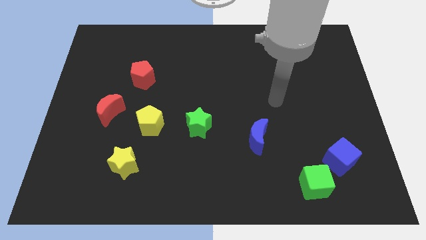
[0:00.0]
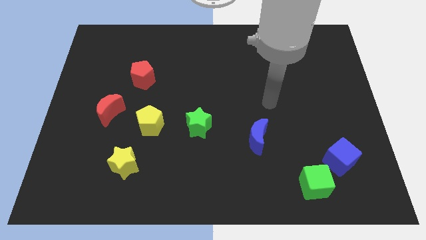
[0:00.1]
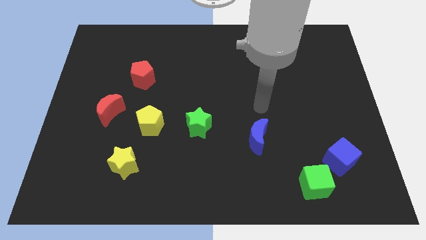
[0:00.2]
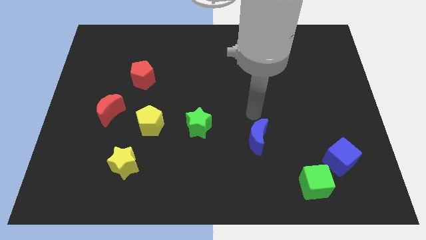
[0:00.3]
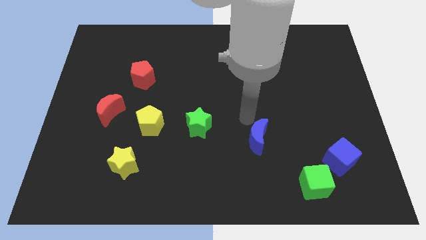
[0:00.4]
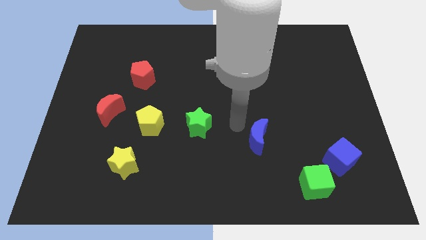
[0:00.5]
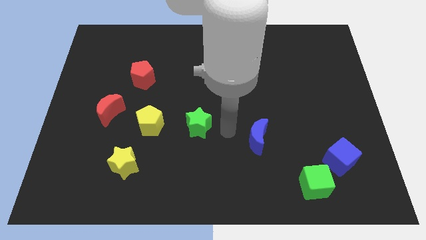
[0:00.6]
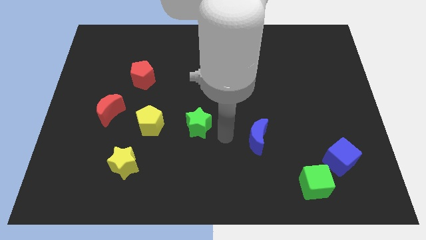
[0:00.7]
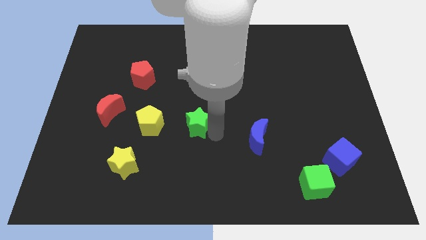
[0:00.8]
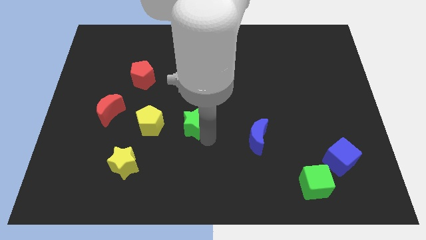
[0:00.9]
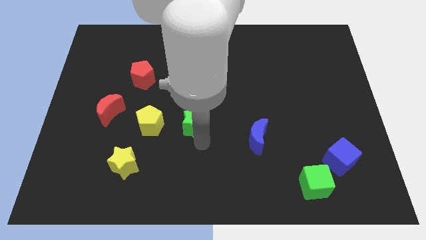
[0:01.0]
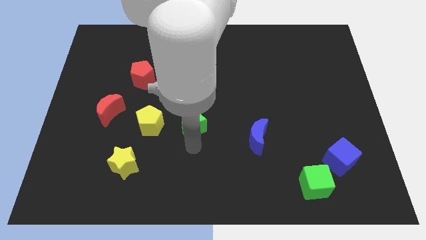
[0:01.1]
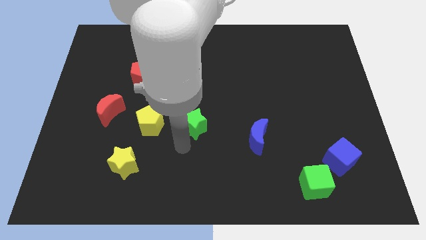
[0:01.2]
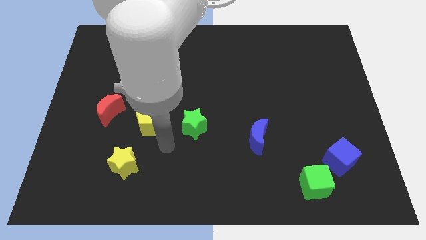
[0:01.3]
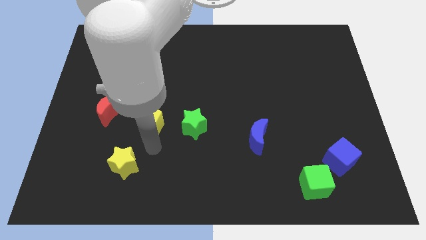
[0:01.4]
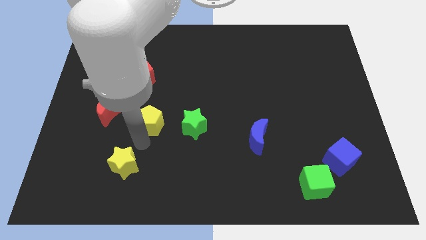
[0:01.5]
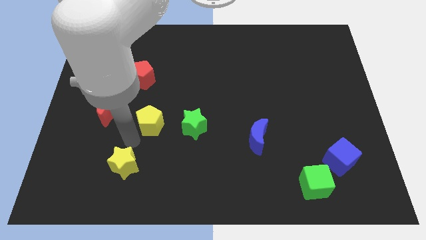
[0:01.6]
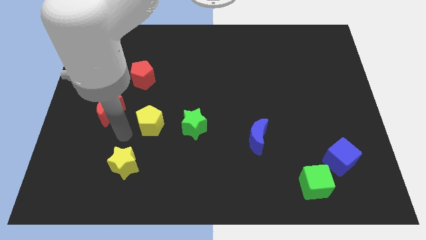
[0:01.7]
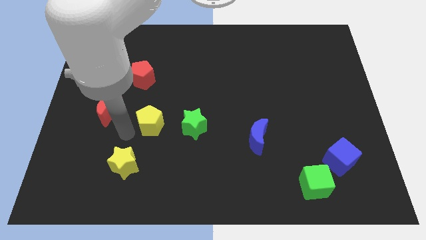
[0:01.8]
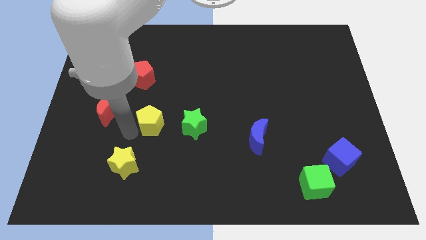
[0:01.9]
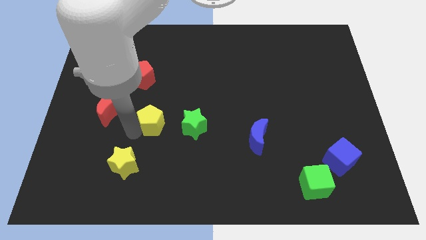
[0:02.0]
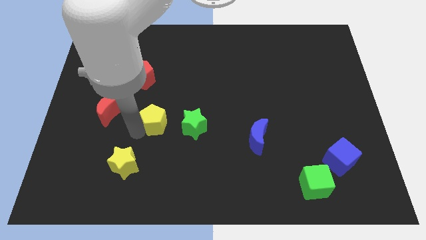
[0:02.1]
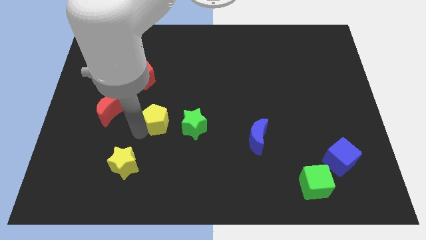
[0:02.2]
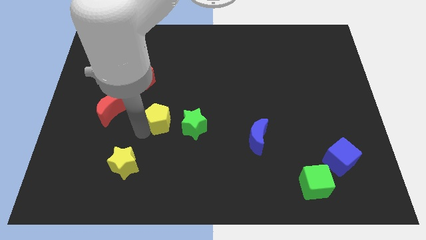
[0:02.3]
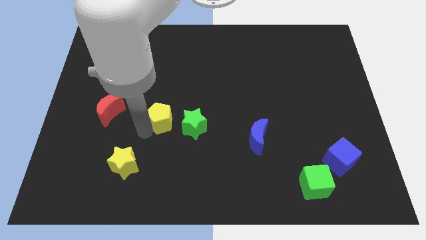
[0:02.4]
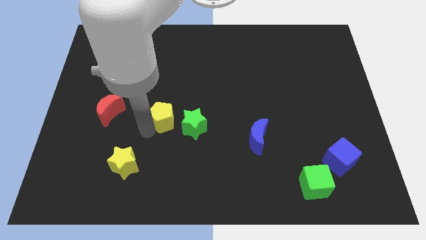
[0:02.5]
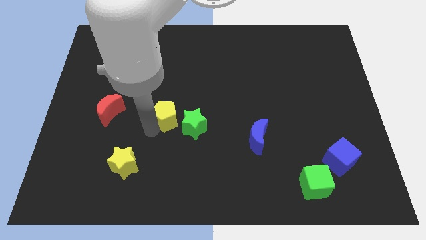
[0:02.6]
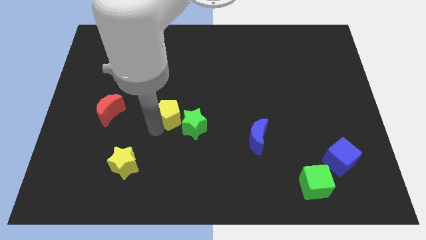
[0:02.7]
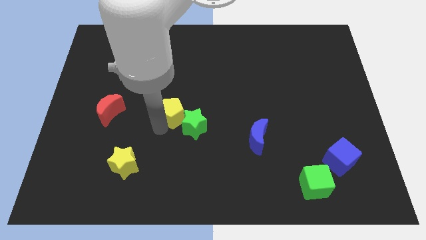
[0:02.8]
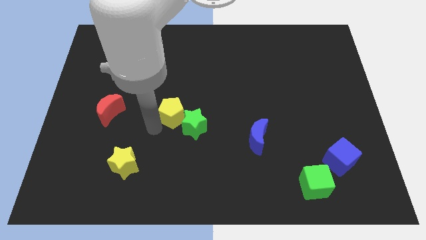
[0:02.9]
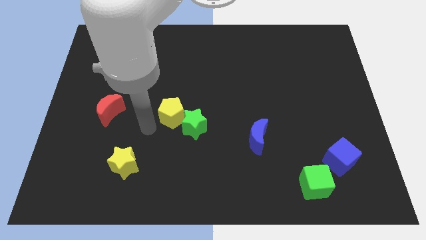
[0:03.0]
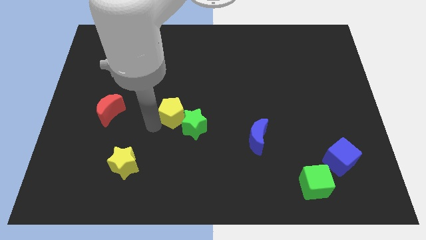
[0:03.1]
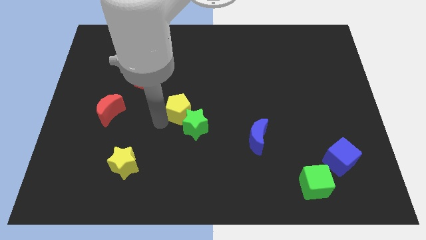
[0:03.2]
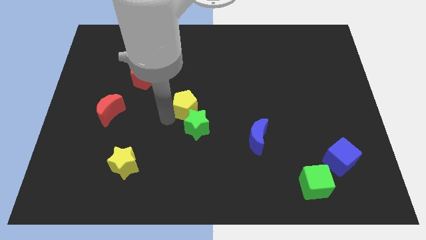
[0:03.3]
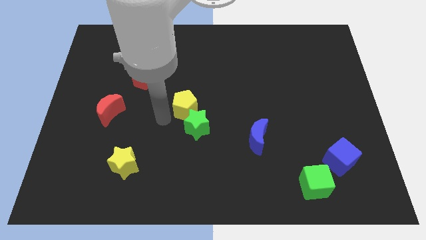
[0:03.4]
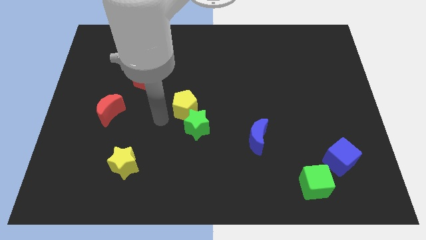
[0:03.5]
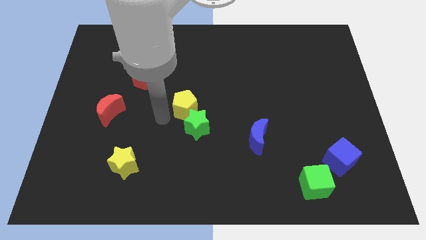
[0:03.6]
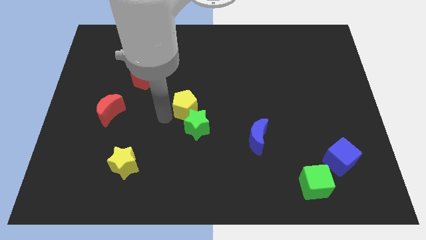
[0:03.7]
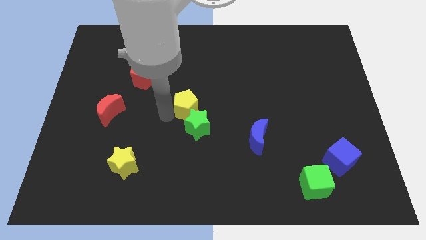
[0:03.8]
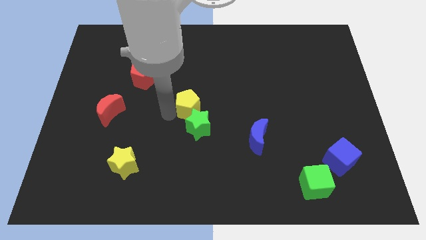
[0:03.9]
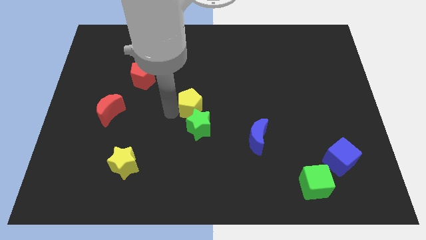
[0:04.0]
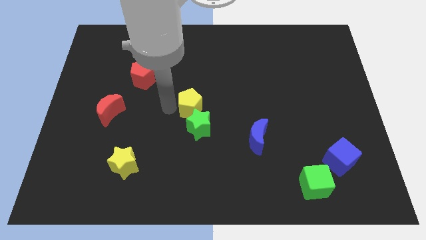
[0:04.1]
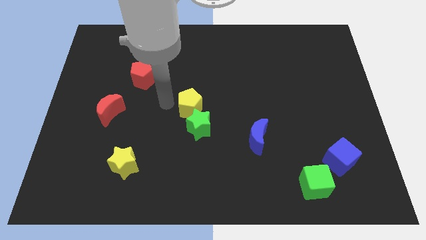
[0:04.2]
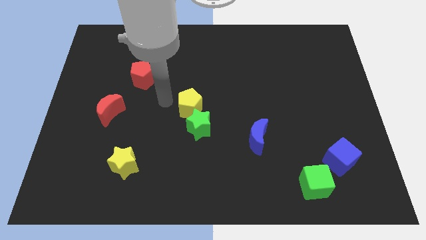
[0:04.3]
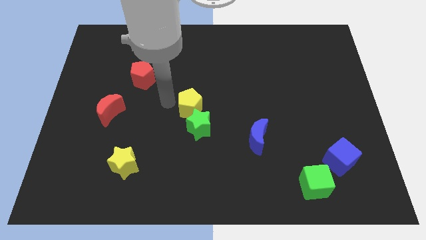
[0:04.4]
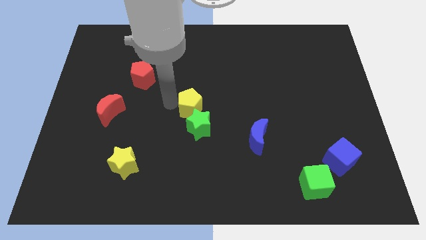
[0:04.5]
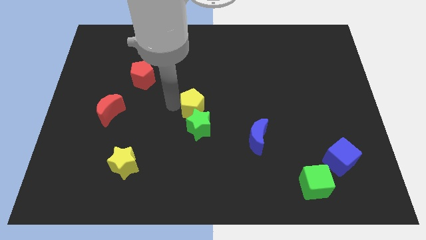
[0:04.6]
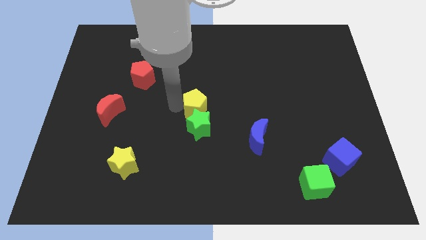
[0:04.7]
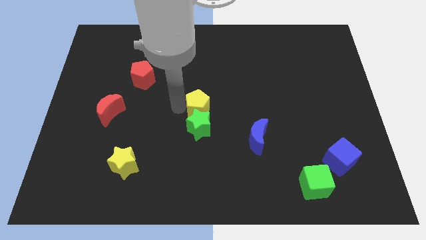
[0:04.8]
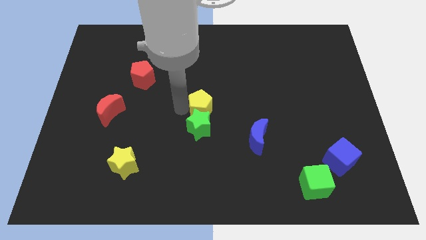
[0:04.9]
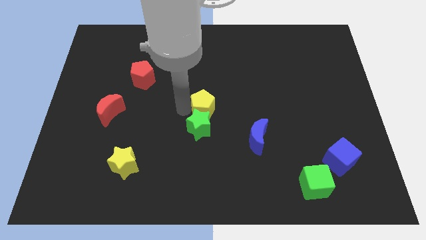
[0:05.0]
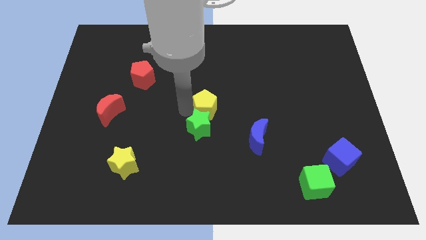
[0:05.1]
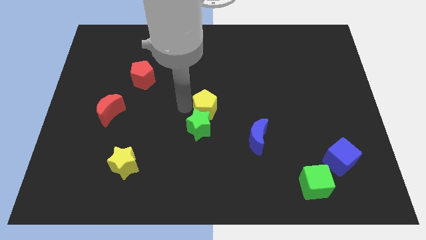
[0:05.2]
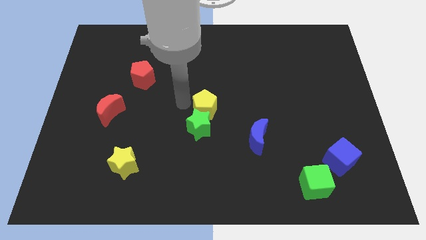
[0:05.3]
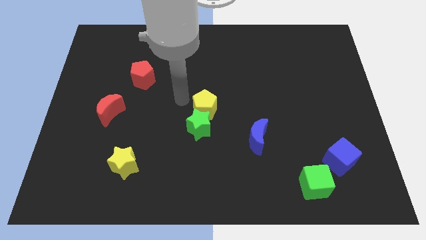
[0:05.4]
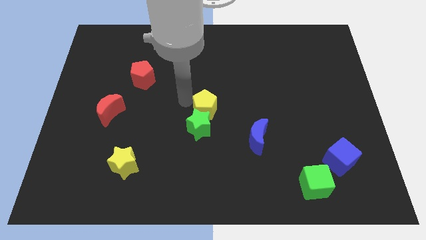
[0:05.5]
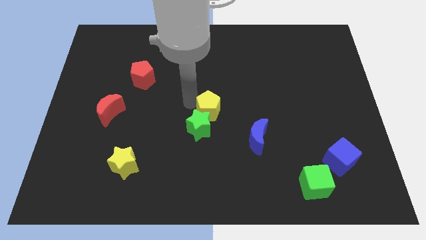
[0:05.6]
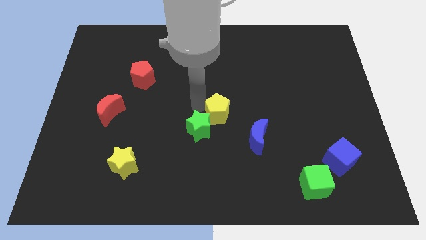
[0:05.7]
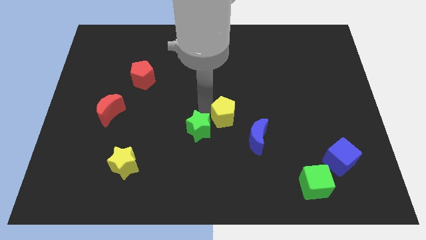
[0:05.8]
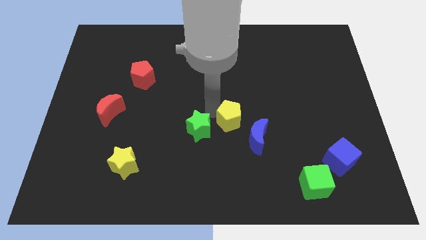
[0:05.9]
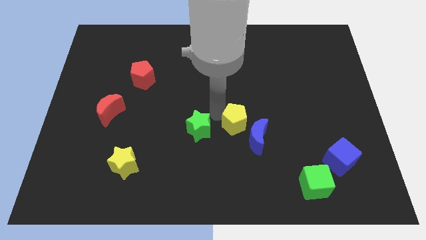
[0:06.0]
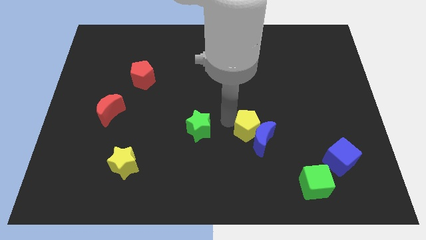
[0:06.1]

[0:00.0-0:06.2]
move the yellow pentagon right

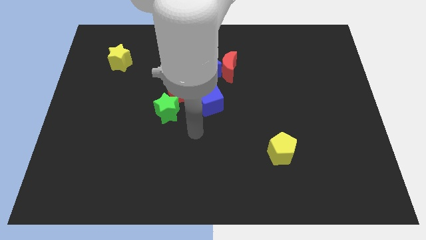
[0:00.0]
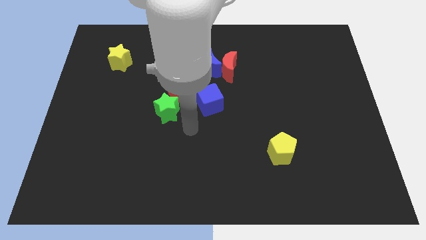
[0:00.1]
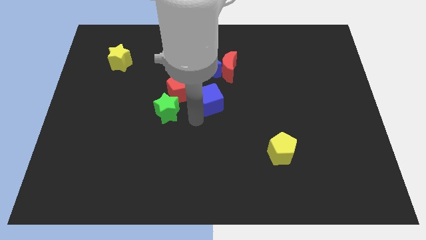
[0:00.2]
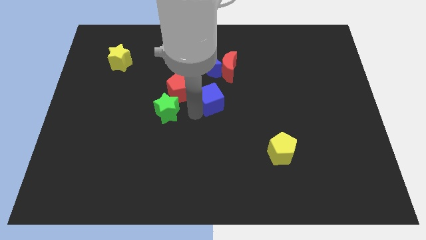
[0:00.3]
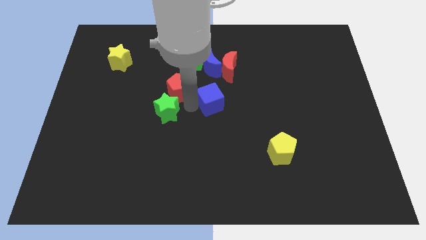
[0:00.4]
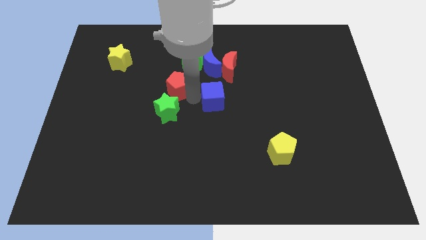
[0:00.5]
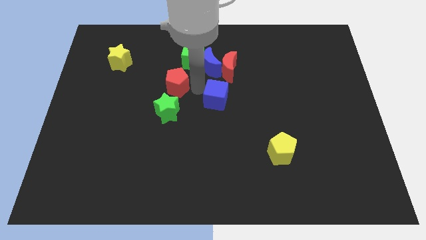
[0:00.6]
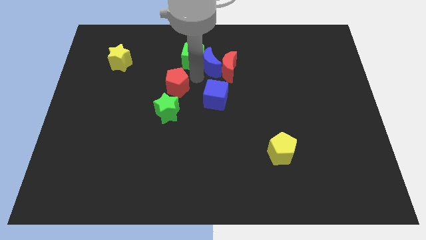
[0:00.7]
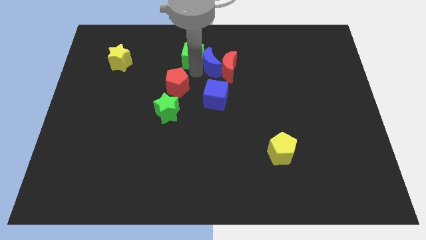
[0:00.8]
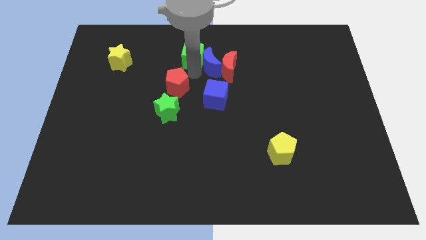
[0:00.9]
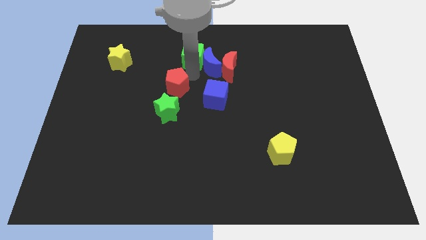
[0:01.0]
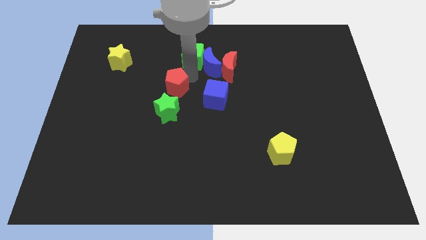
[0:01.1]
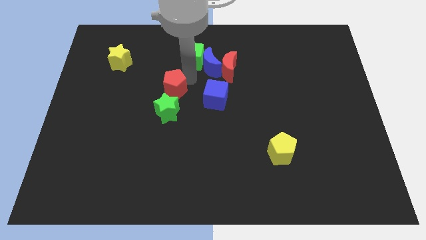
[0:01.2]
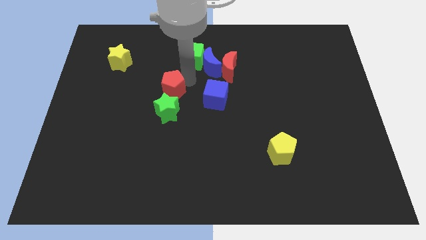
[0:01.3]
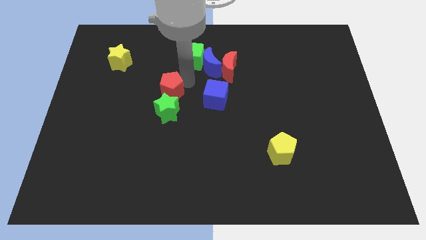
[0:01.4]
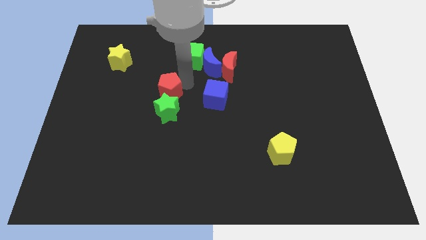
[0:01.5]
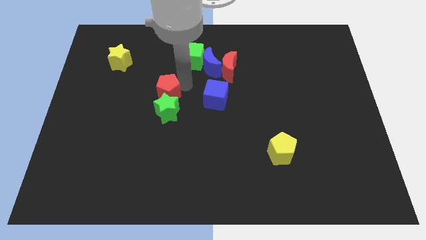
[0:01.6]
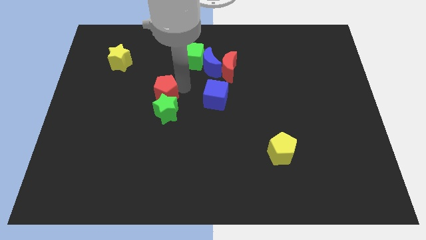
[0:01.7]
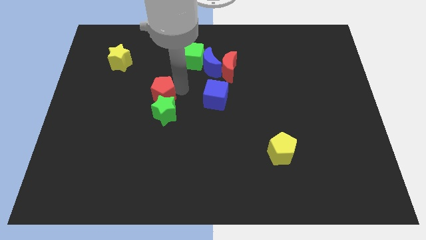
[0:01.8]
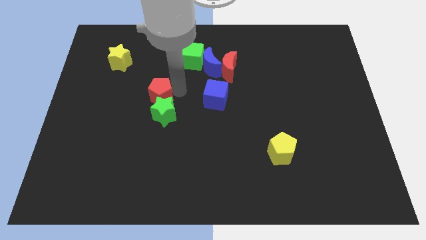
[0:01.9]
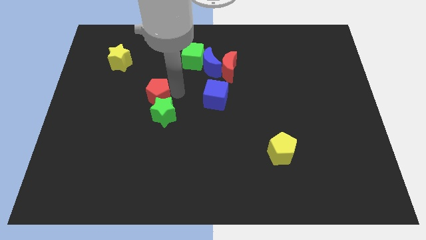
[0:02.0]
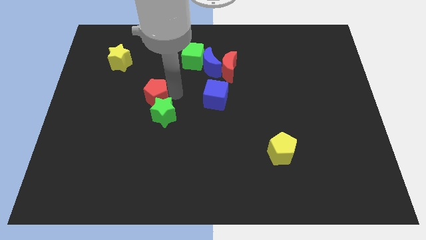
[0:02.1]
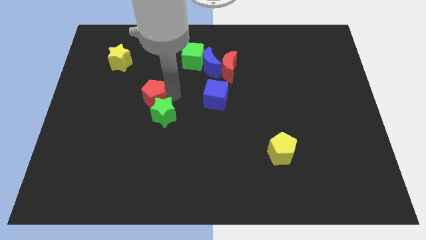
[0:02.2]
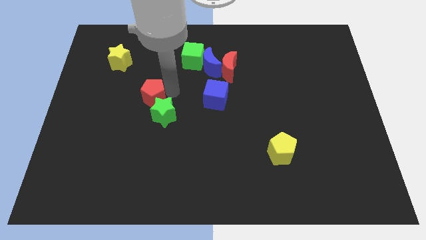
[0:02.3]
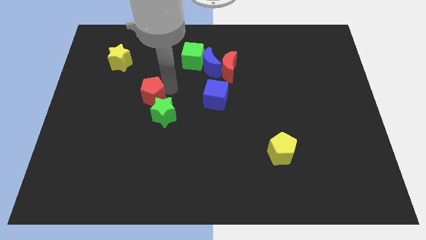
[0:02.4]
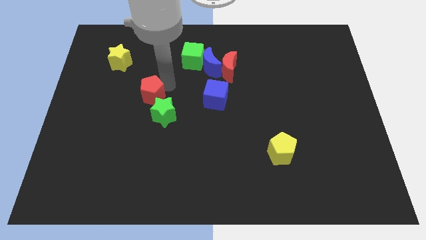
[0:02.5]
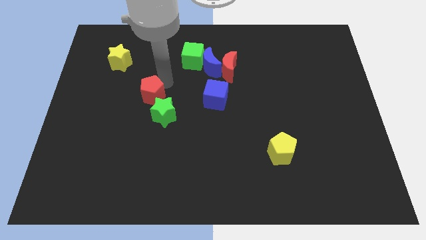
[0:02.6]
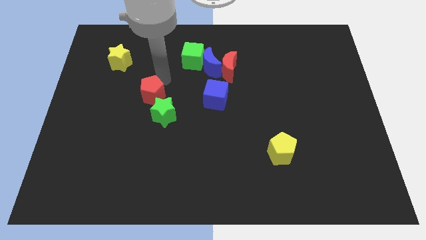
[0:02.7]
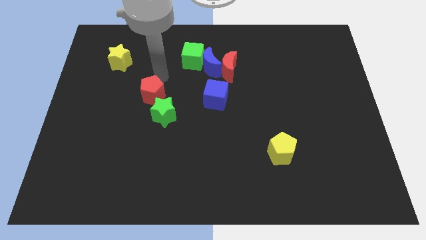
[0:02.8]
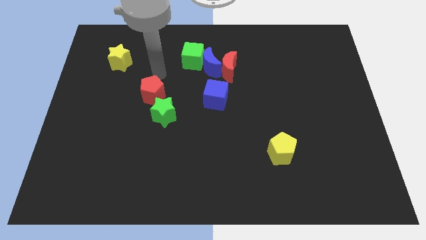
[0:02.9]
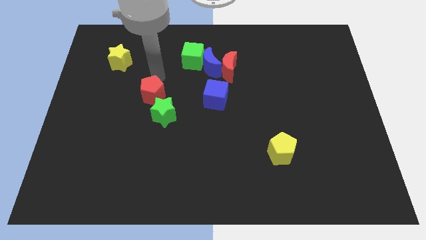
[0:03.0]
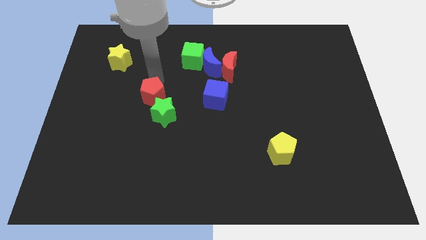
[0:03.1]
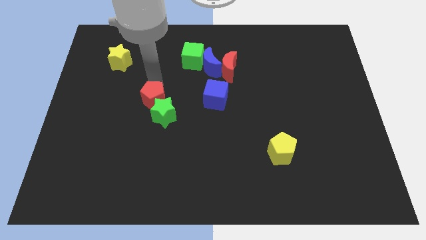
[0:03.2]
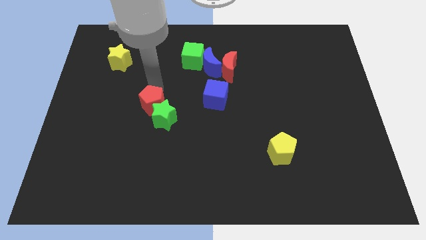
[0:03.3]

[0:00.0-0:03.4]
slightly push the red pentagon down and then to the left
